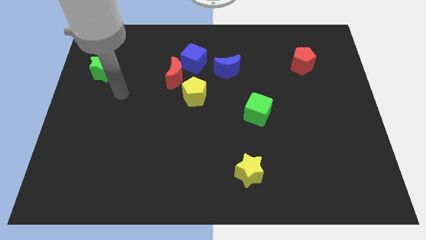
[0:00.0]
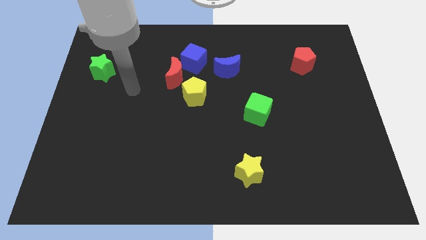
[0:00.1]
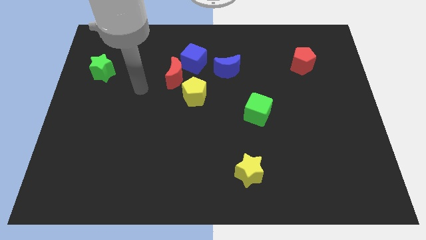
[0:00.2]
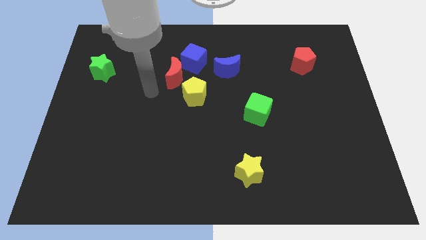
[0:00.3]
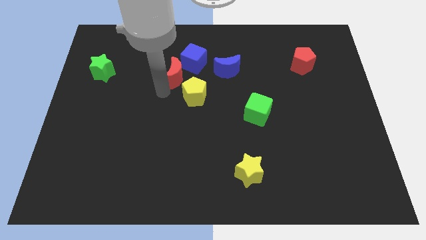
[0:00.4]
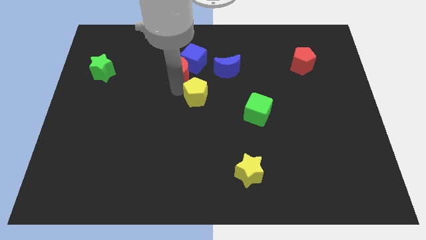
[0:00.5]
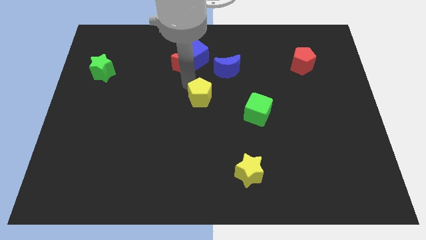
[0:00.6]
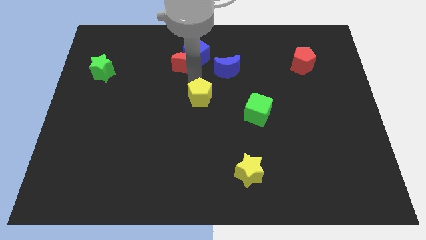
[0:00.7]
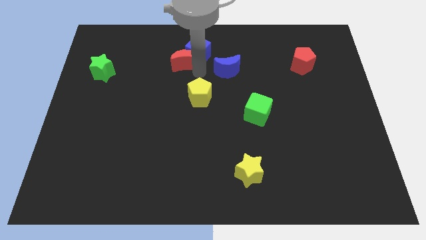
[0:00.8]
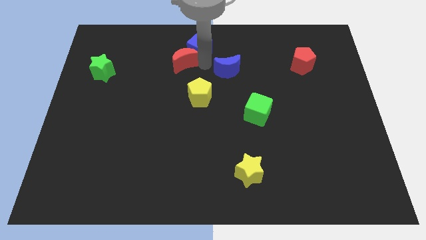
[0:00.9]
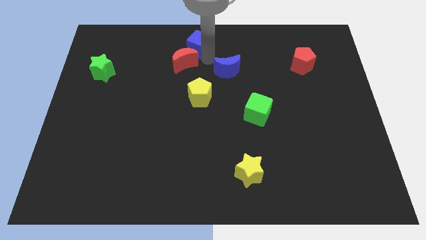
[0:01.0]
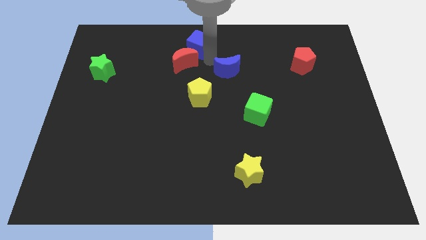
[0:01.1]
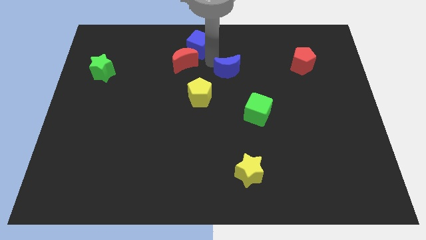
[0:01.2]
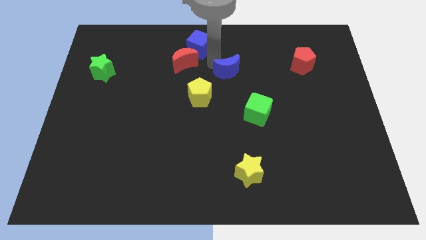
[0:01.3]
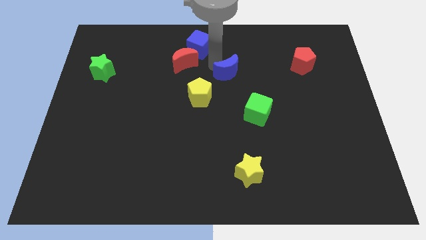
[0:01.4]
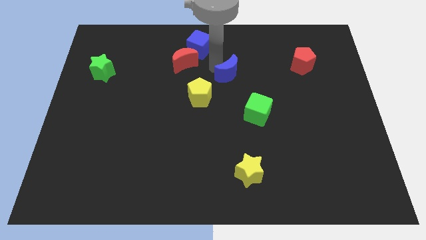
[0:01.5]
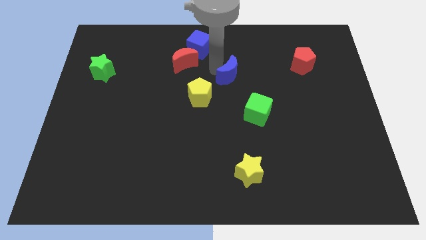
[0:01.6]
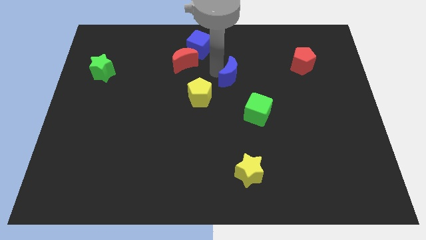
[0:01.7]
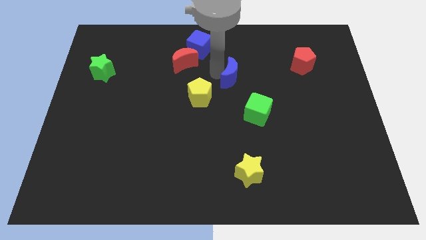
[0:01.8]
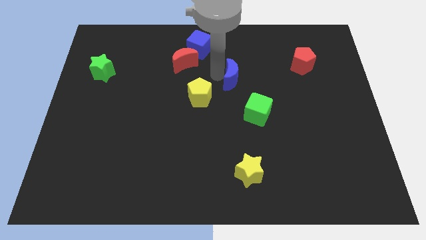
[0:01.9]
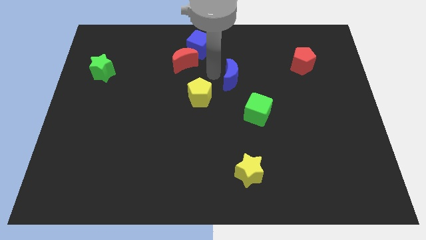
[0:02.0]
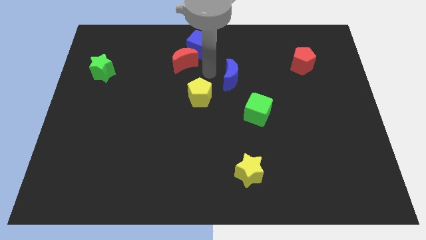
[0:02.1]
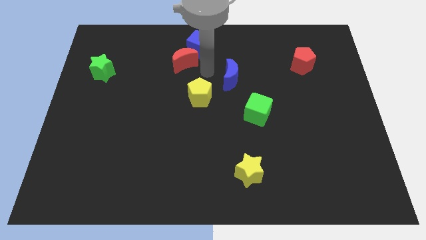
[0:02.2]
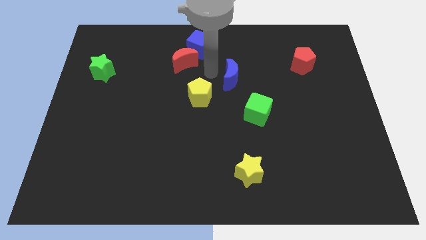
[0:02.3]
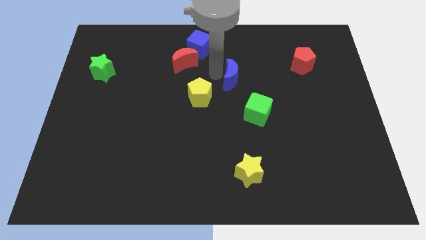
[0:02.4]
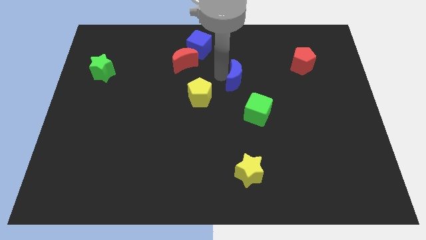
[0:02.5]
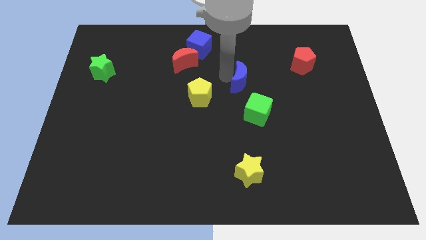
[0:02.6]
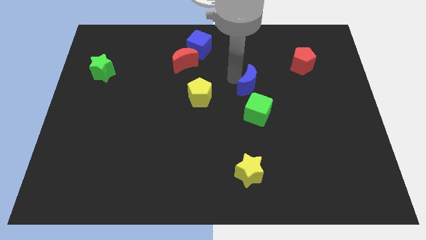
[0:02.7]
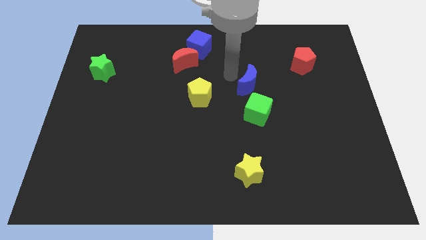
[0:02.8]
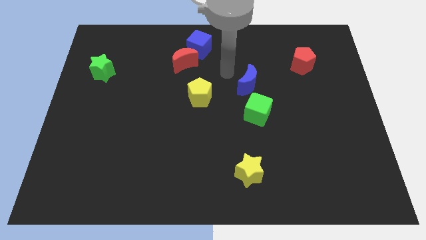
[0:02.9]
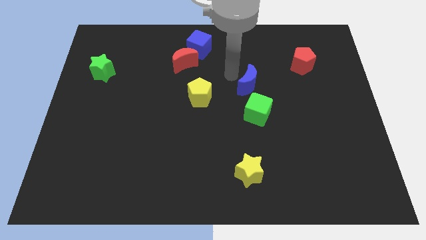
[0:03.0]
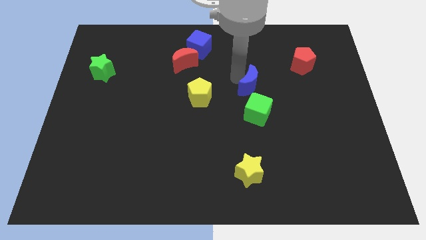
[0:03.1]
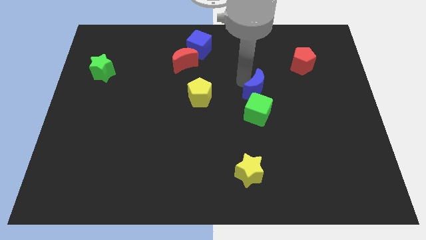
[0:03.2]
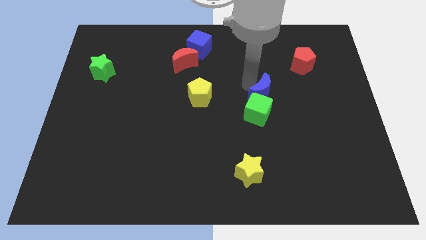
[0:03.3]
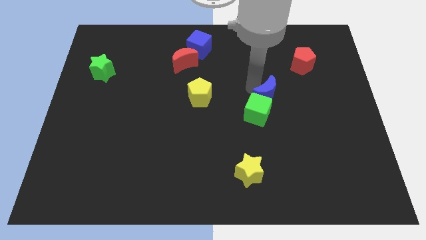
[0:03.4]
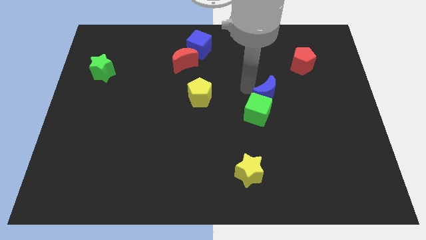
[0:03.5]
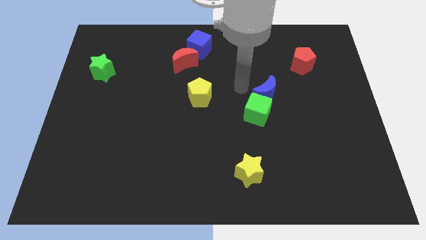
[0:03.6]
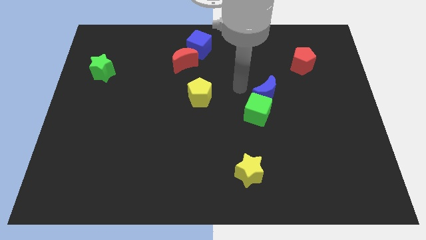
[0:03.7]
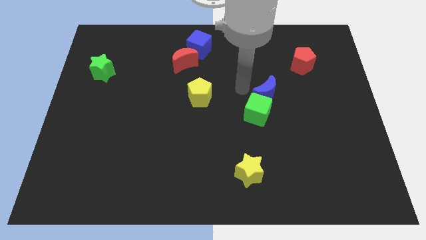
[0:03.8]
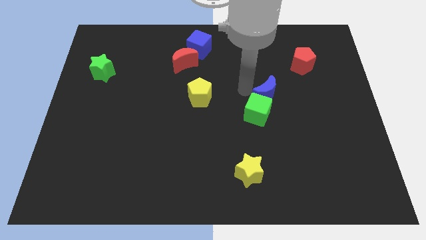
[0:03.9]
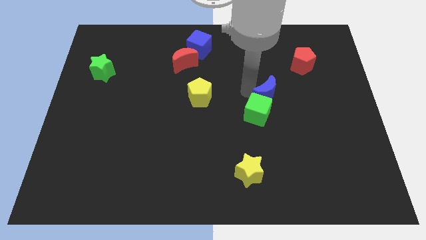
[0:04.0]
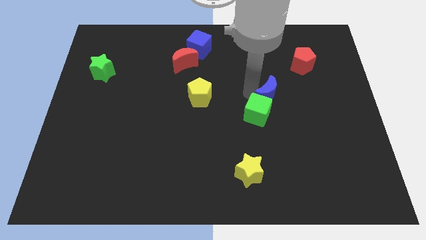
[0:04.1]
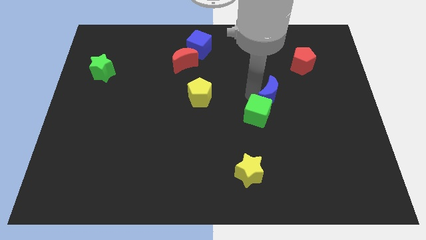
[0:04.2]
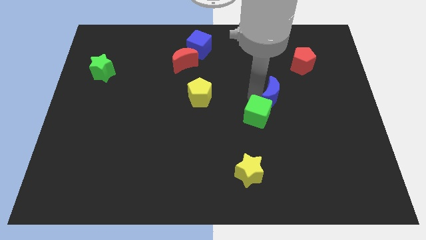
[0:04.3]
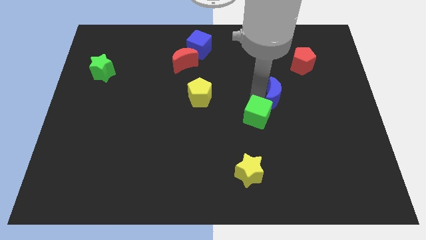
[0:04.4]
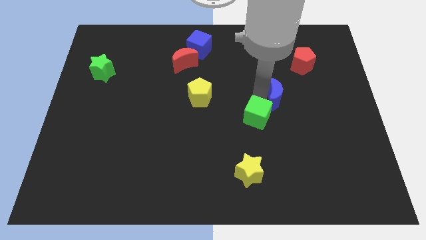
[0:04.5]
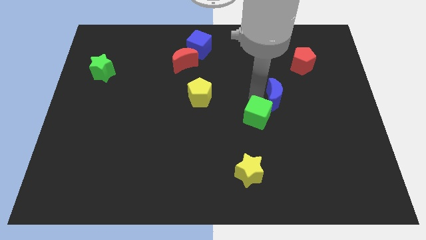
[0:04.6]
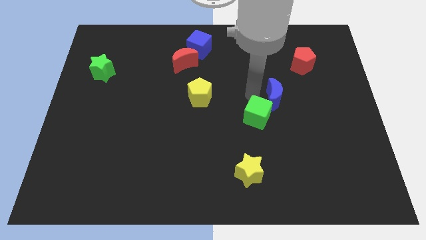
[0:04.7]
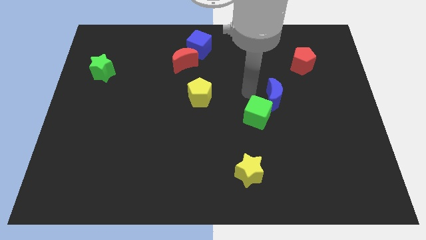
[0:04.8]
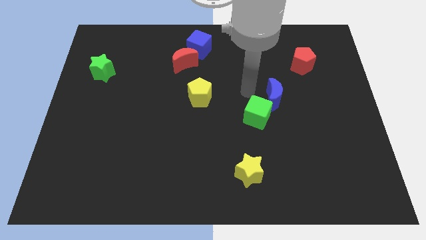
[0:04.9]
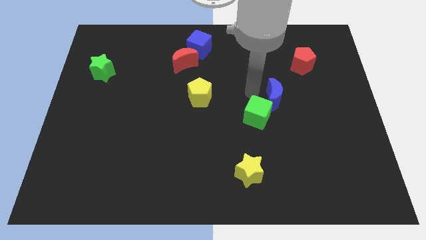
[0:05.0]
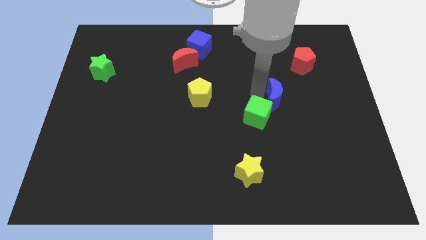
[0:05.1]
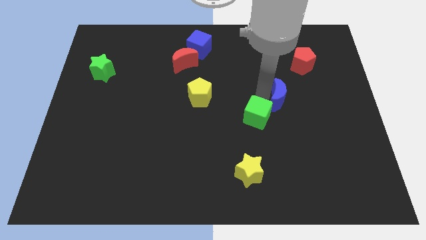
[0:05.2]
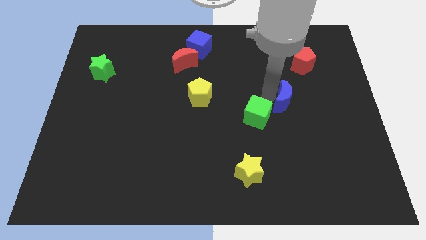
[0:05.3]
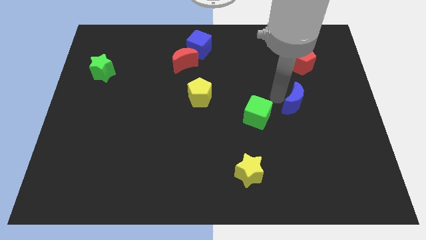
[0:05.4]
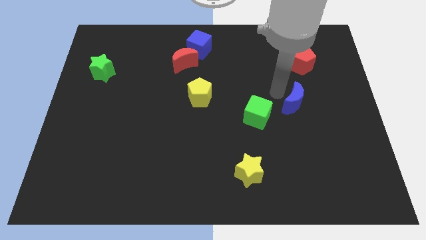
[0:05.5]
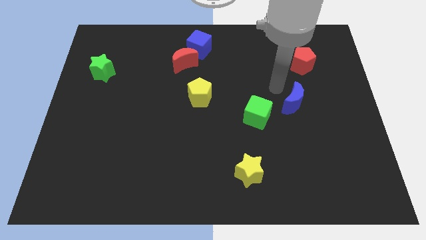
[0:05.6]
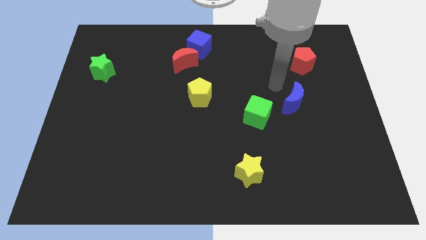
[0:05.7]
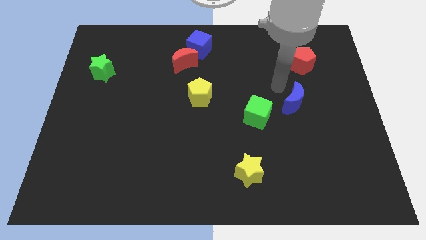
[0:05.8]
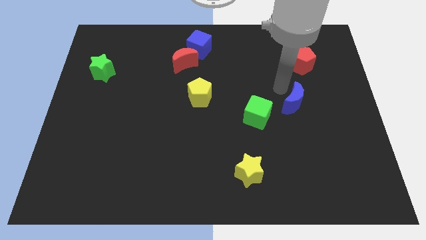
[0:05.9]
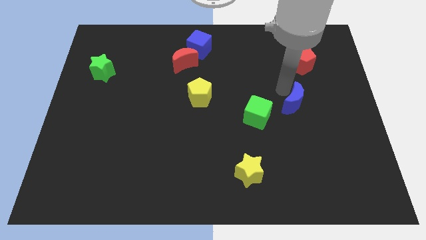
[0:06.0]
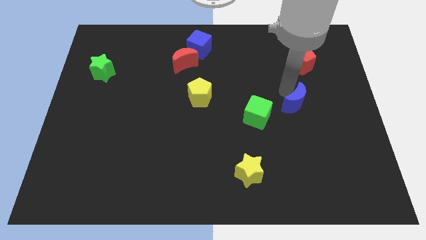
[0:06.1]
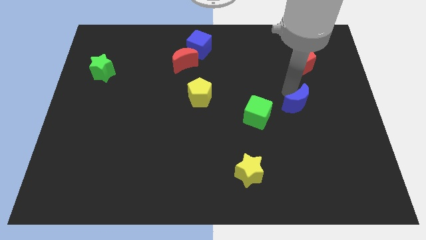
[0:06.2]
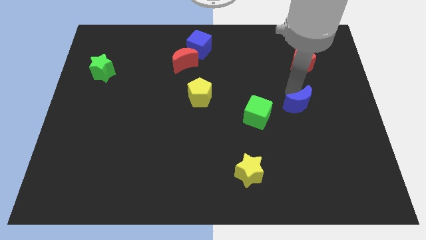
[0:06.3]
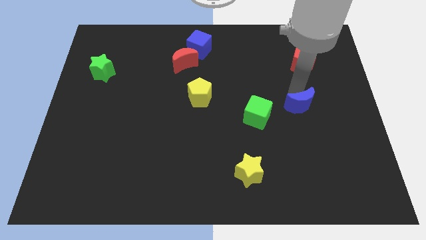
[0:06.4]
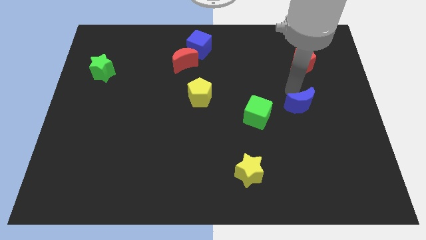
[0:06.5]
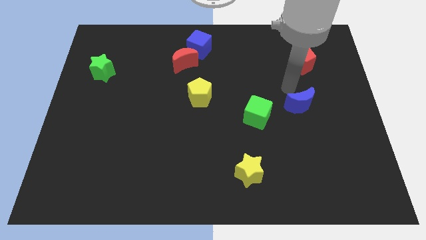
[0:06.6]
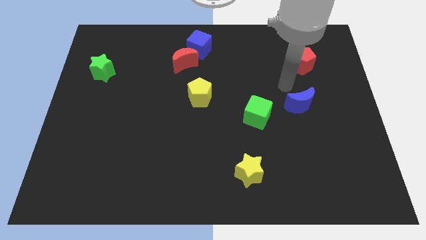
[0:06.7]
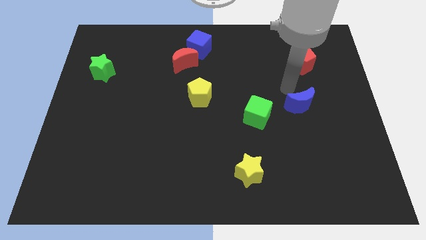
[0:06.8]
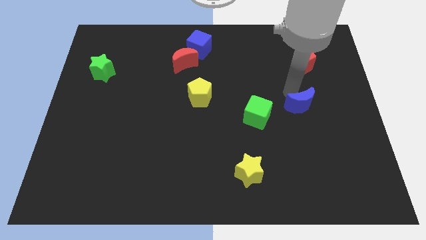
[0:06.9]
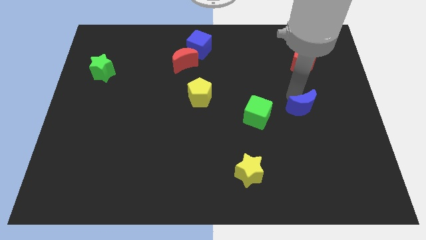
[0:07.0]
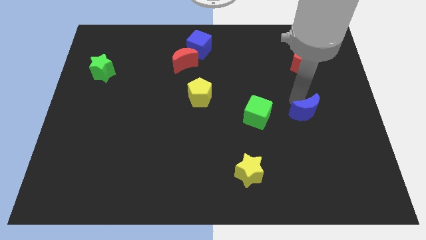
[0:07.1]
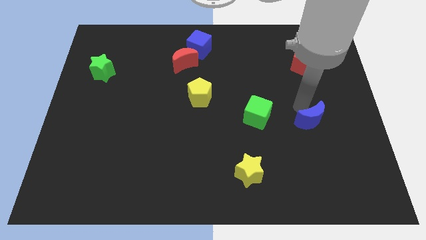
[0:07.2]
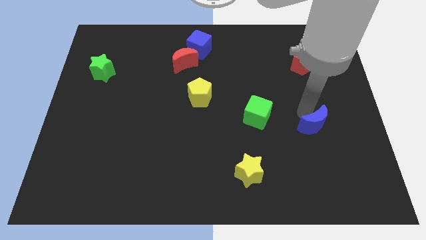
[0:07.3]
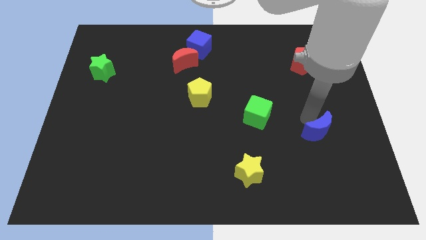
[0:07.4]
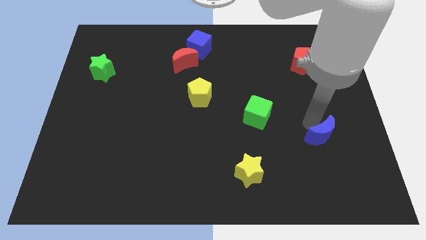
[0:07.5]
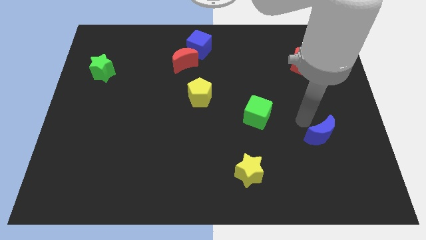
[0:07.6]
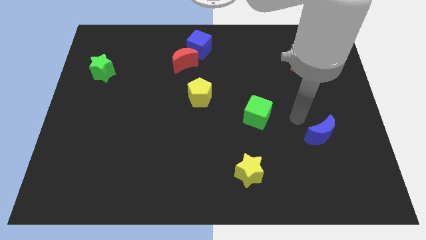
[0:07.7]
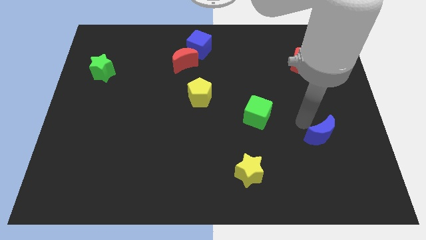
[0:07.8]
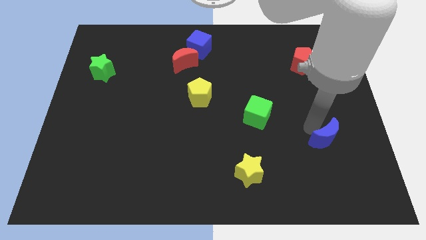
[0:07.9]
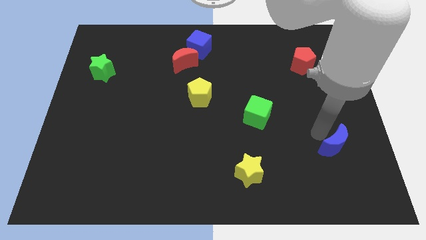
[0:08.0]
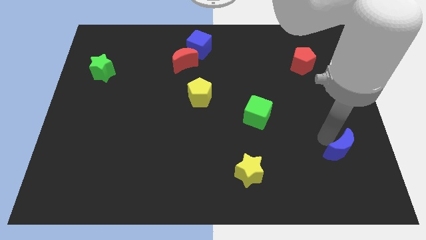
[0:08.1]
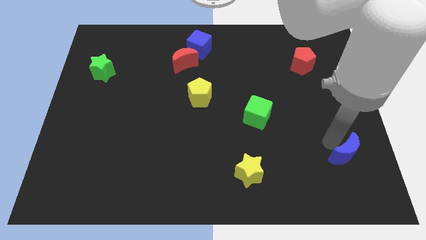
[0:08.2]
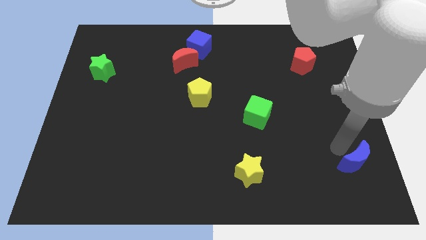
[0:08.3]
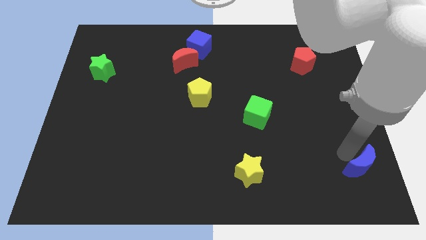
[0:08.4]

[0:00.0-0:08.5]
slide the blue moon to the bottom right corner
